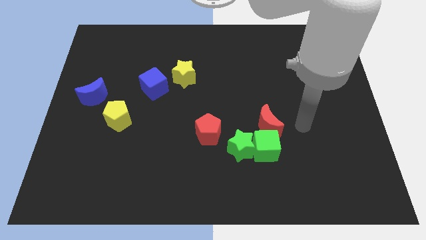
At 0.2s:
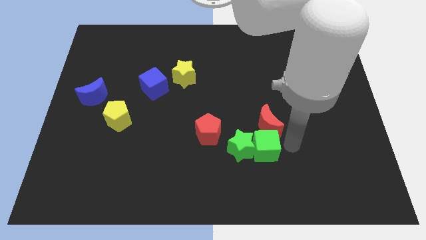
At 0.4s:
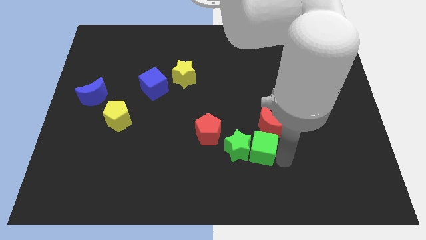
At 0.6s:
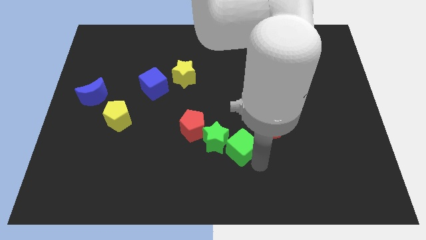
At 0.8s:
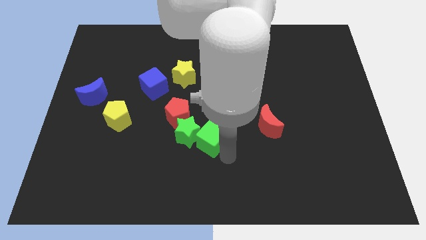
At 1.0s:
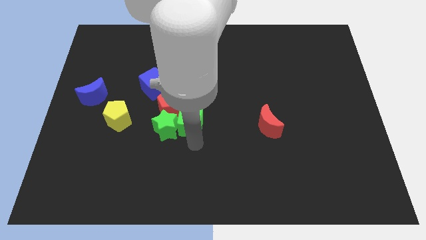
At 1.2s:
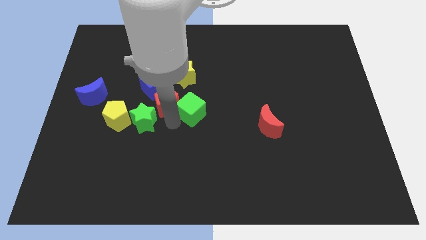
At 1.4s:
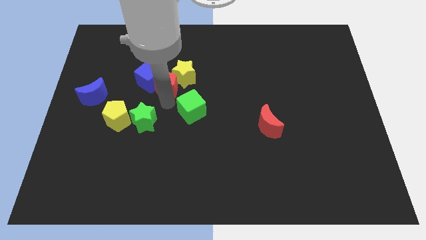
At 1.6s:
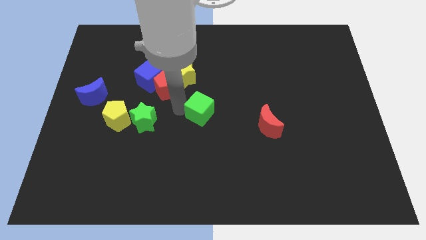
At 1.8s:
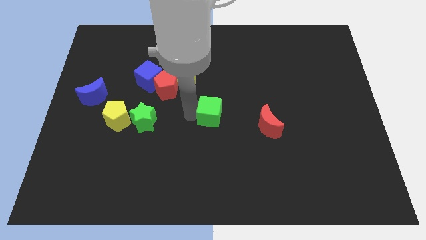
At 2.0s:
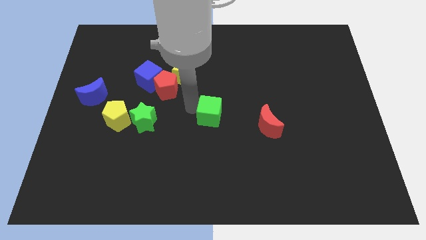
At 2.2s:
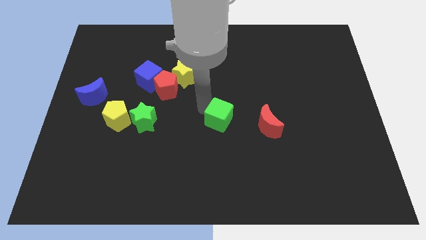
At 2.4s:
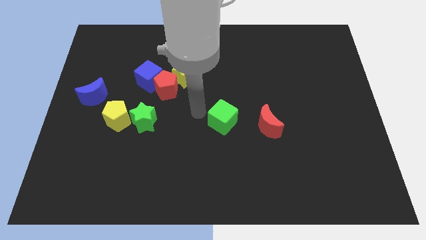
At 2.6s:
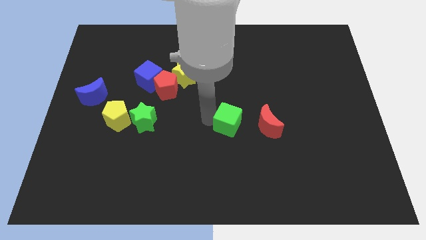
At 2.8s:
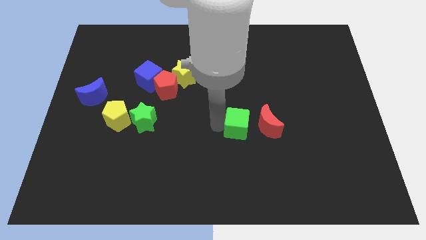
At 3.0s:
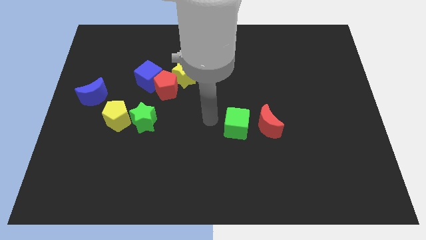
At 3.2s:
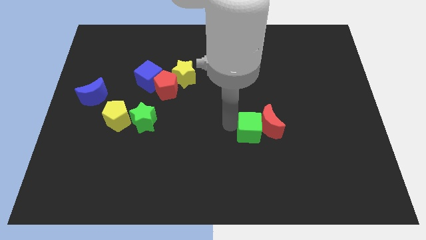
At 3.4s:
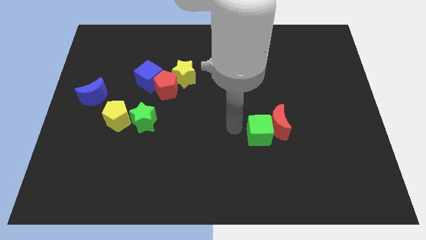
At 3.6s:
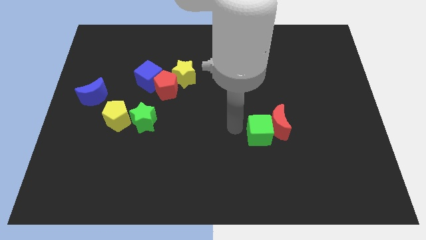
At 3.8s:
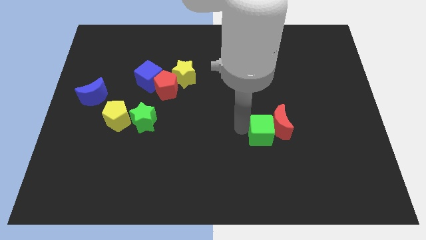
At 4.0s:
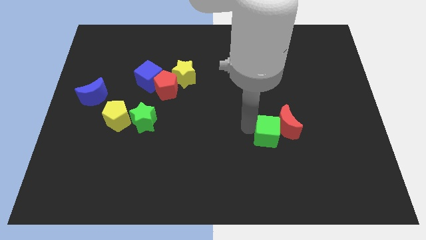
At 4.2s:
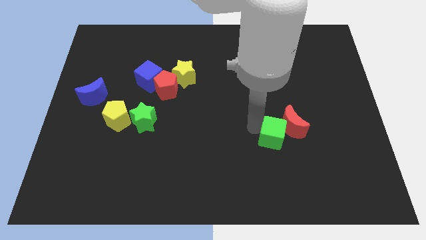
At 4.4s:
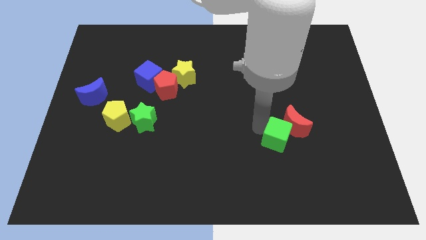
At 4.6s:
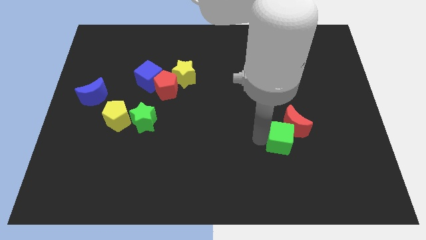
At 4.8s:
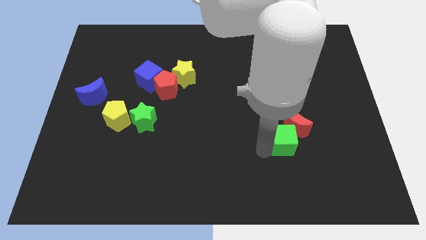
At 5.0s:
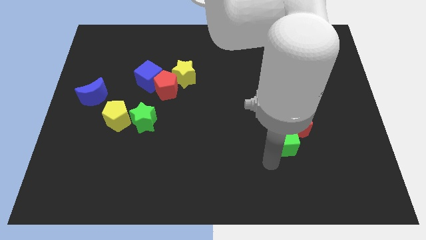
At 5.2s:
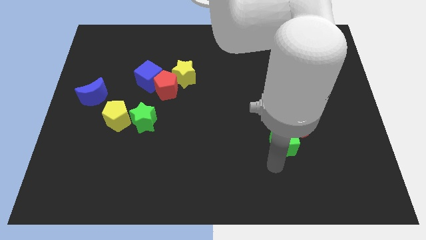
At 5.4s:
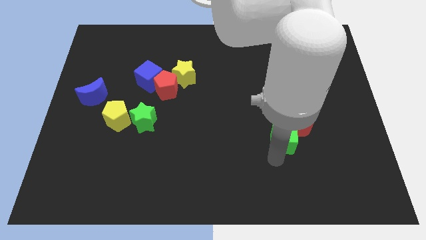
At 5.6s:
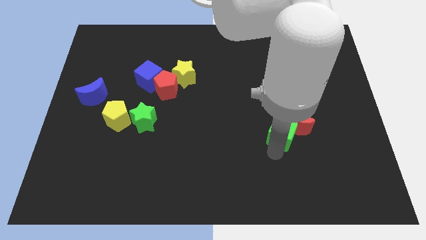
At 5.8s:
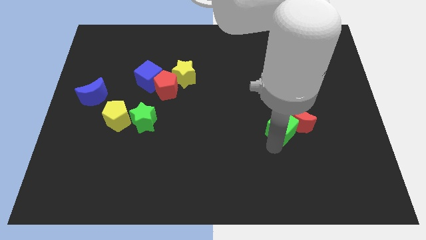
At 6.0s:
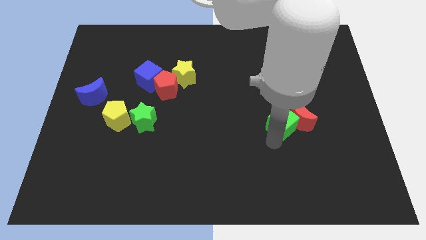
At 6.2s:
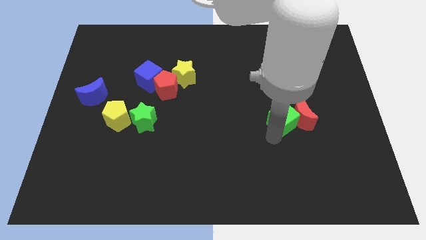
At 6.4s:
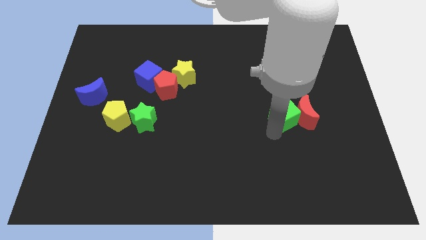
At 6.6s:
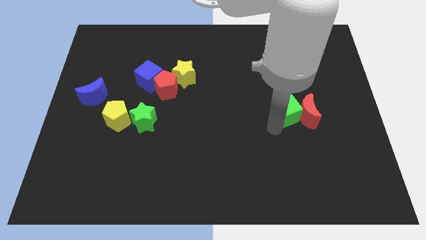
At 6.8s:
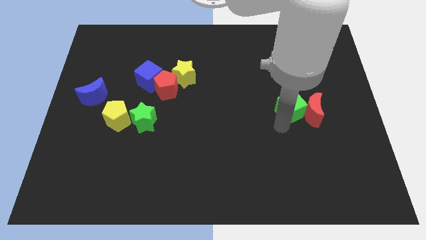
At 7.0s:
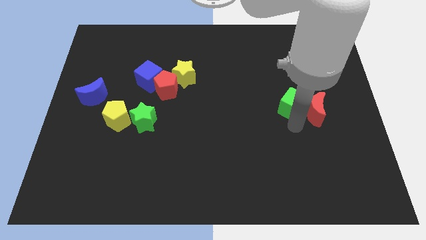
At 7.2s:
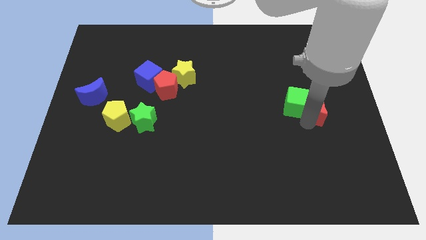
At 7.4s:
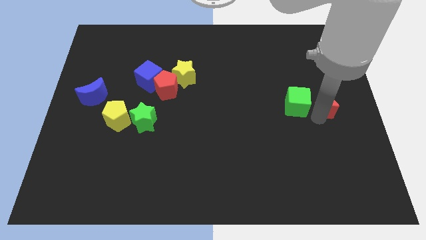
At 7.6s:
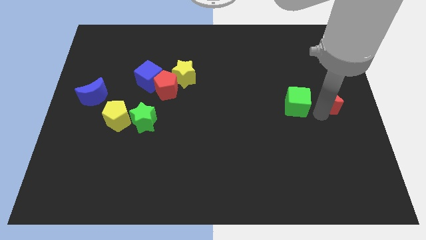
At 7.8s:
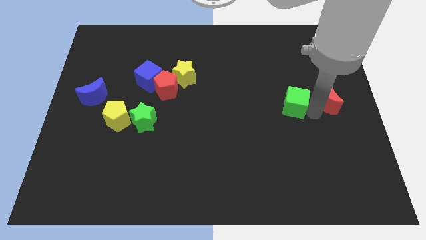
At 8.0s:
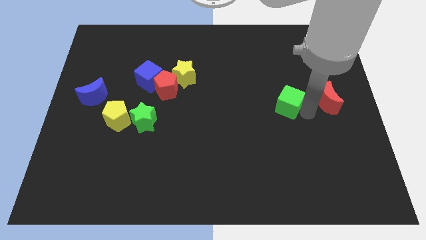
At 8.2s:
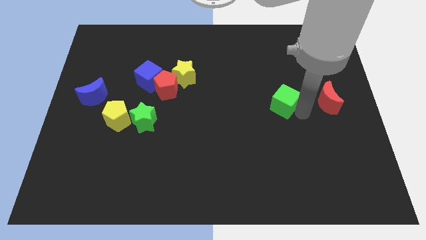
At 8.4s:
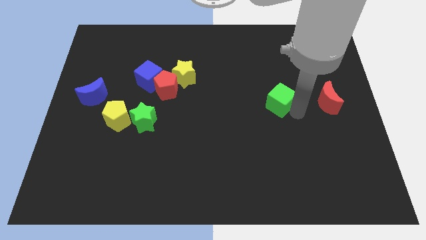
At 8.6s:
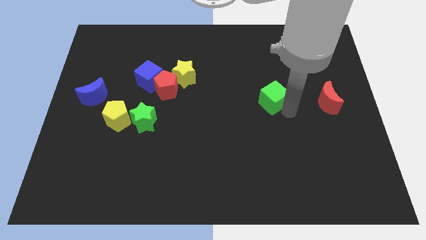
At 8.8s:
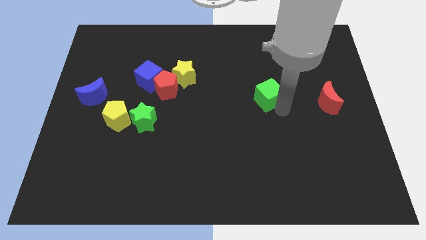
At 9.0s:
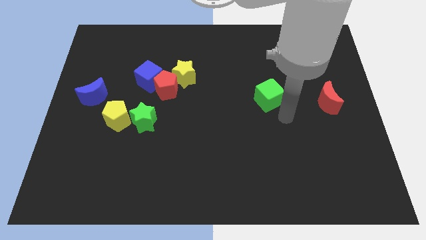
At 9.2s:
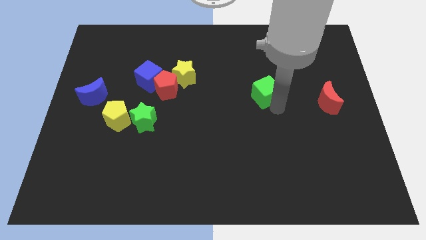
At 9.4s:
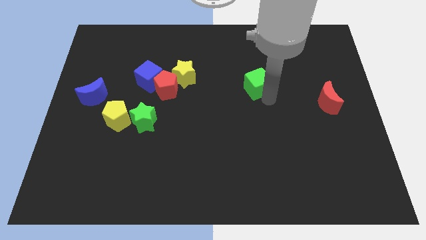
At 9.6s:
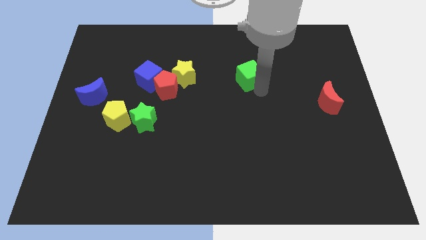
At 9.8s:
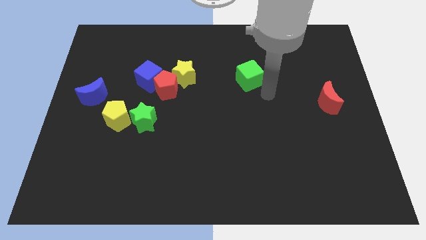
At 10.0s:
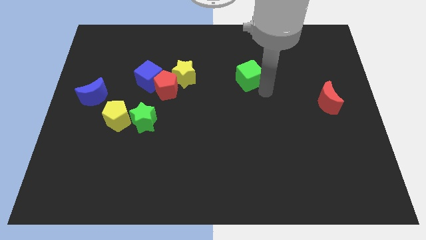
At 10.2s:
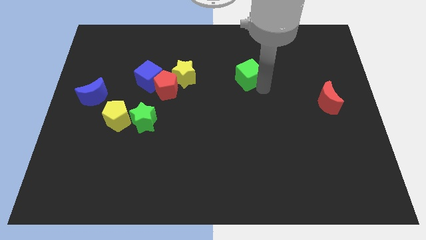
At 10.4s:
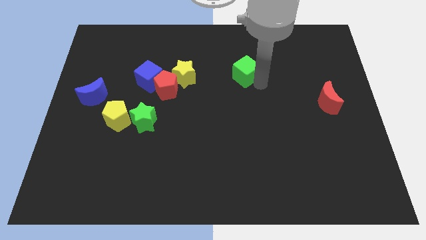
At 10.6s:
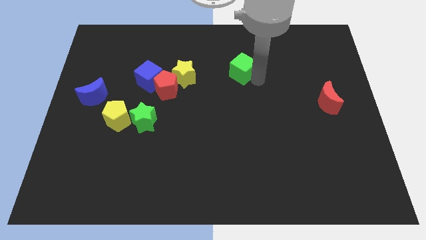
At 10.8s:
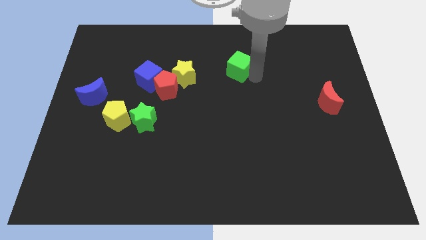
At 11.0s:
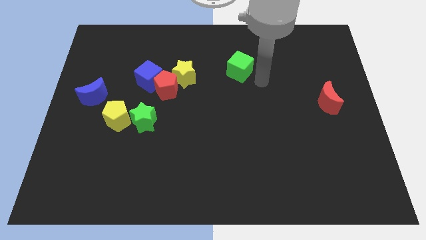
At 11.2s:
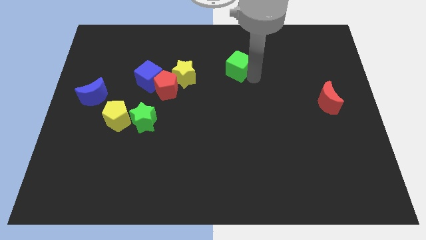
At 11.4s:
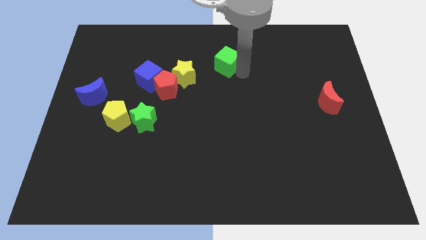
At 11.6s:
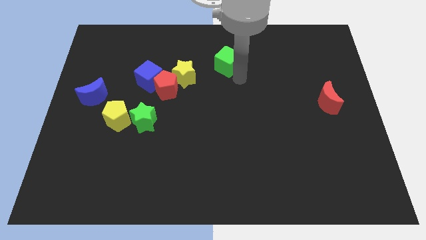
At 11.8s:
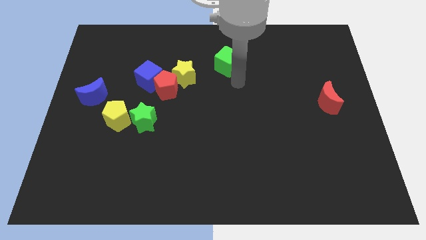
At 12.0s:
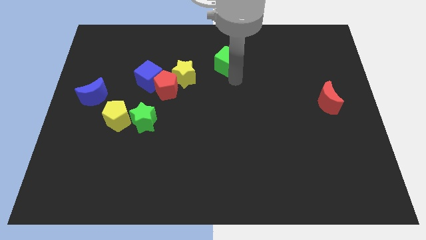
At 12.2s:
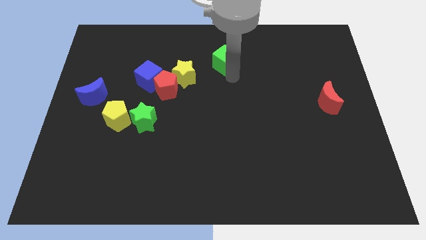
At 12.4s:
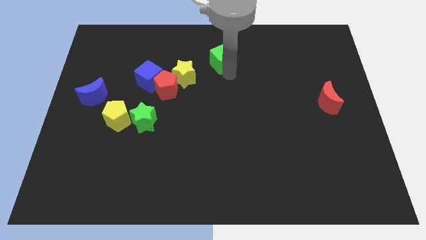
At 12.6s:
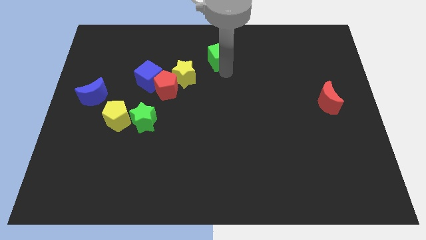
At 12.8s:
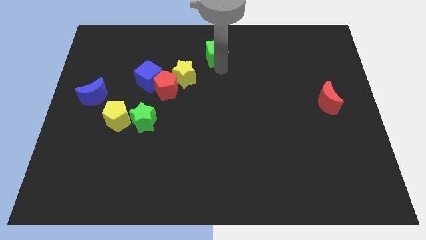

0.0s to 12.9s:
put the green cube to the towards your base

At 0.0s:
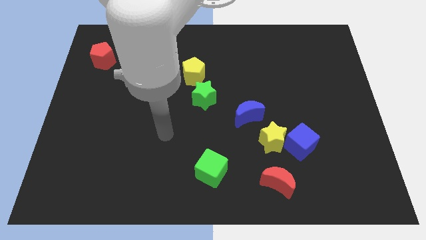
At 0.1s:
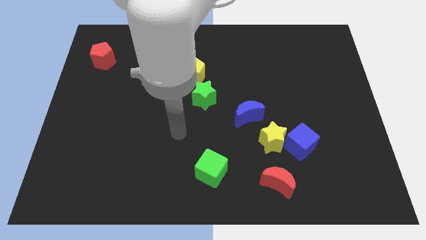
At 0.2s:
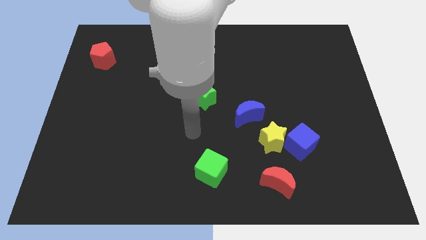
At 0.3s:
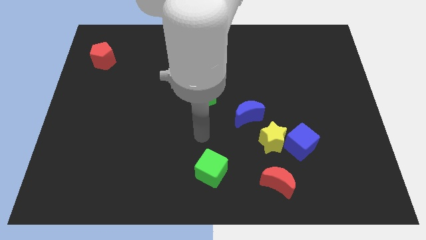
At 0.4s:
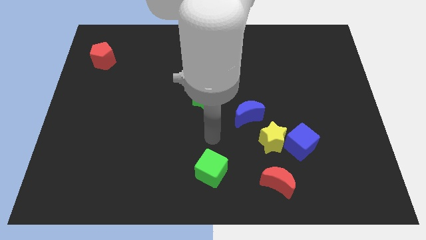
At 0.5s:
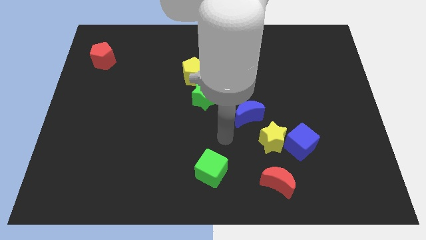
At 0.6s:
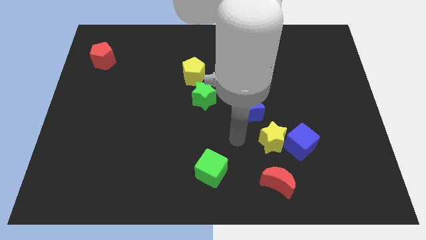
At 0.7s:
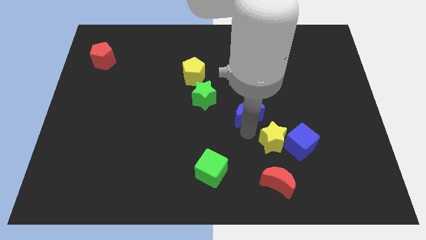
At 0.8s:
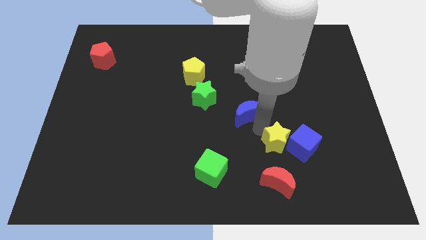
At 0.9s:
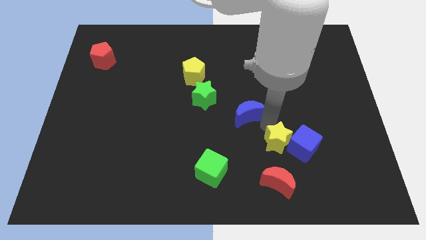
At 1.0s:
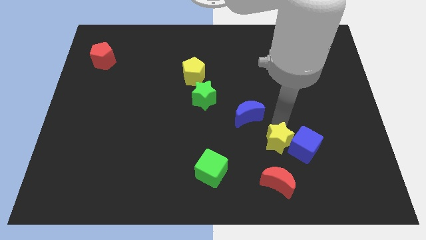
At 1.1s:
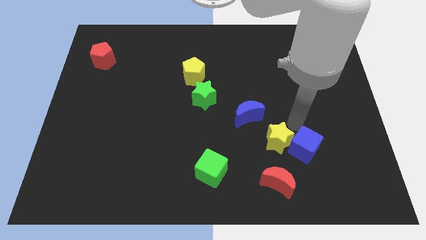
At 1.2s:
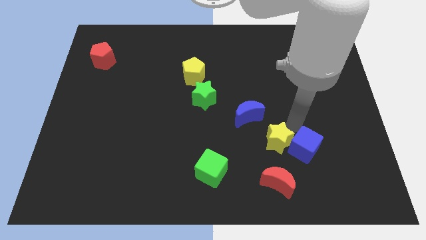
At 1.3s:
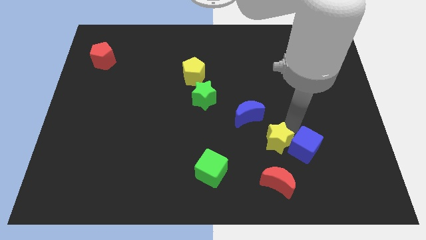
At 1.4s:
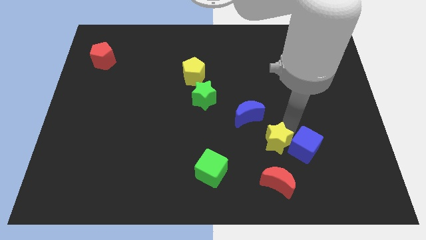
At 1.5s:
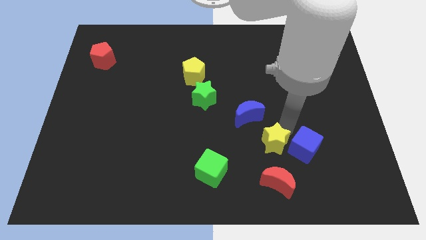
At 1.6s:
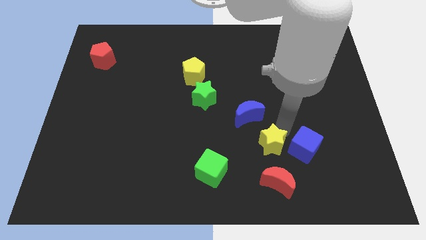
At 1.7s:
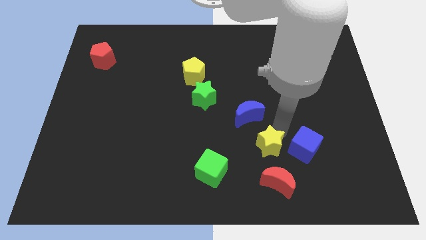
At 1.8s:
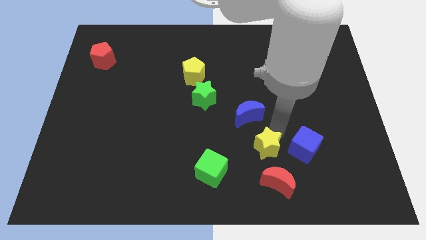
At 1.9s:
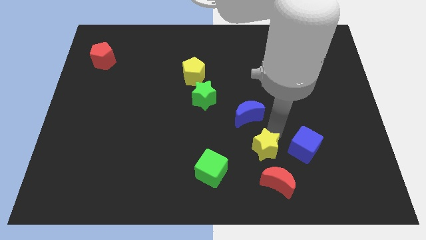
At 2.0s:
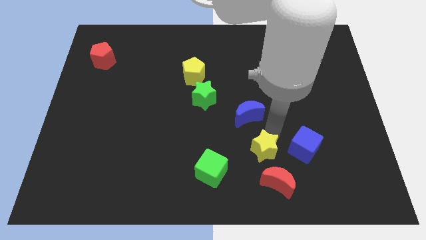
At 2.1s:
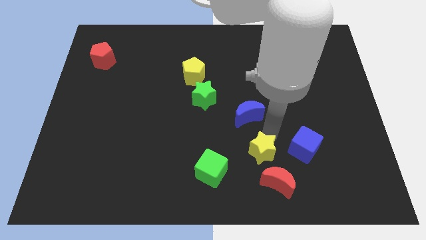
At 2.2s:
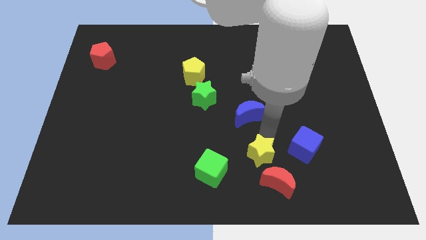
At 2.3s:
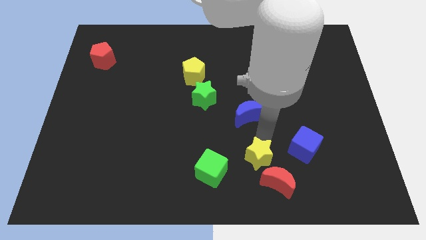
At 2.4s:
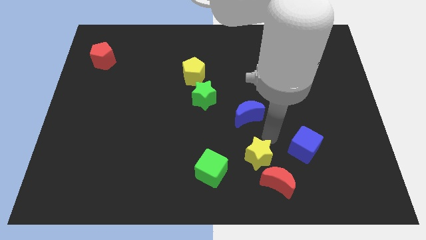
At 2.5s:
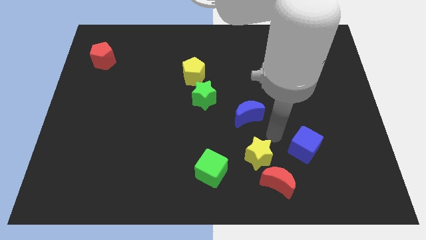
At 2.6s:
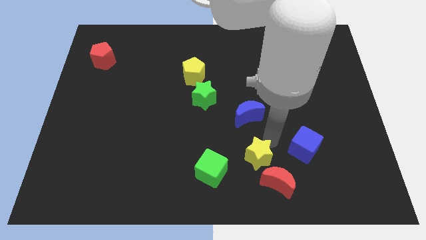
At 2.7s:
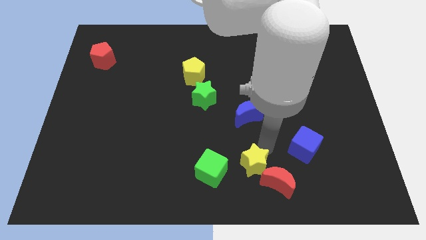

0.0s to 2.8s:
move the yellow star to the bottom side
